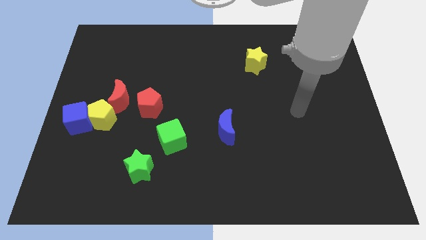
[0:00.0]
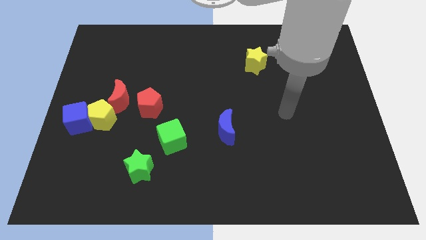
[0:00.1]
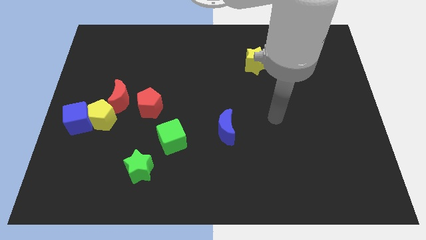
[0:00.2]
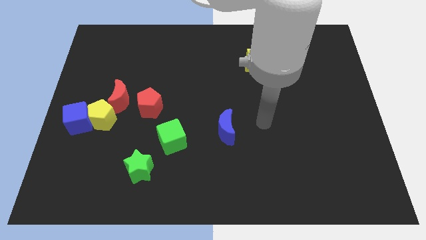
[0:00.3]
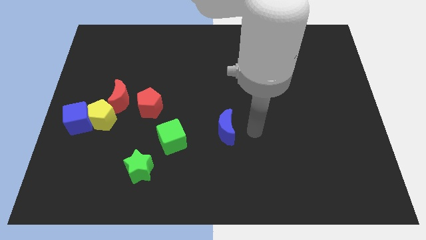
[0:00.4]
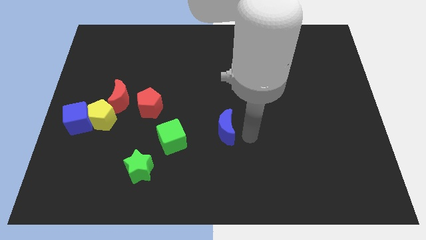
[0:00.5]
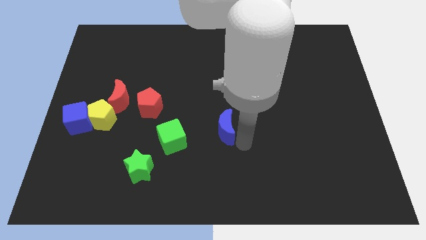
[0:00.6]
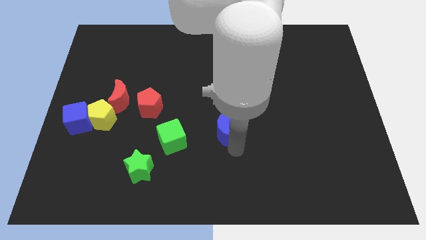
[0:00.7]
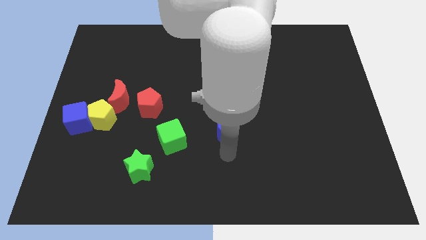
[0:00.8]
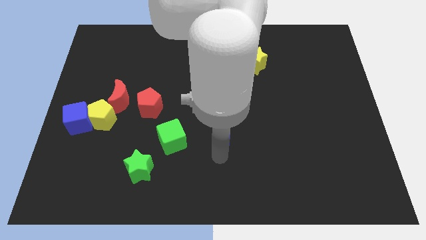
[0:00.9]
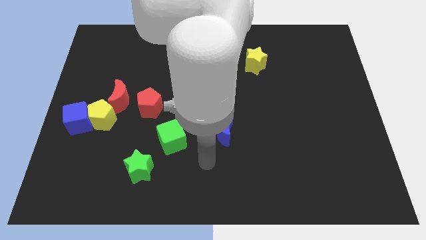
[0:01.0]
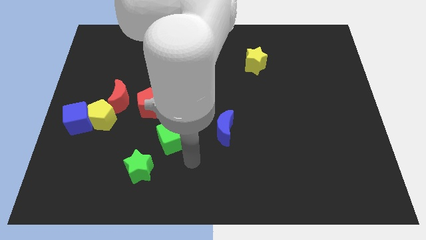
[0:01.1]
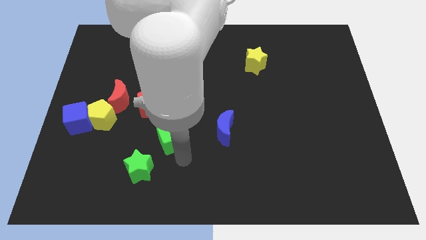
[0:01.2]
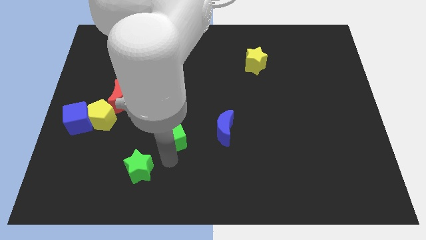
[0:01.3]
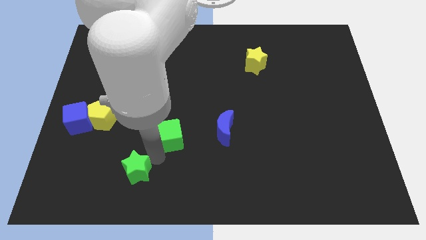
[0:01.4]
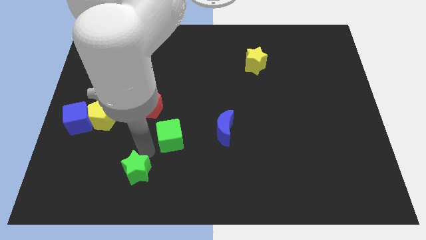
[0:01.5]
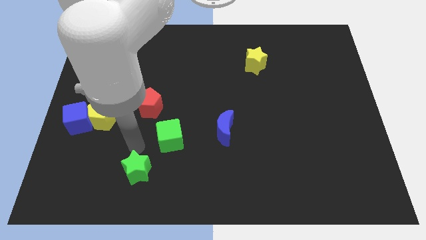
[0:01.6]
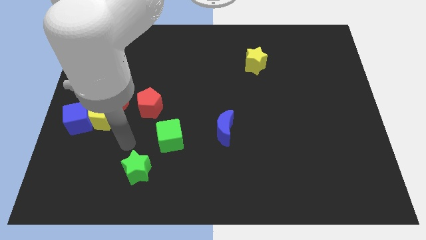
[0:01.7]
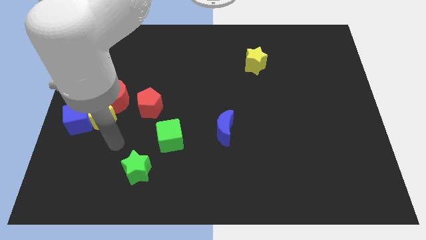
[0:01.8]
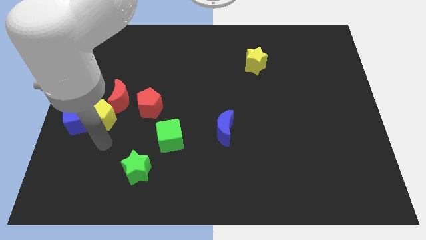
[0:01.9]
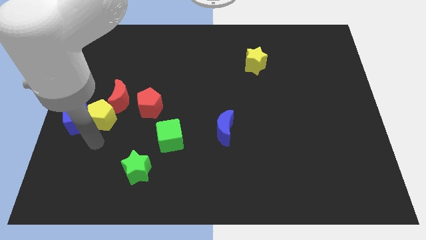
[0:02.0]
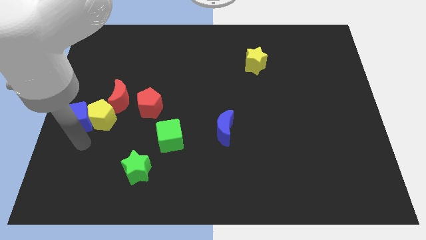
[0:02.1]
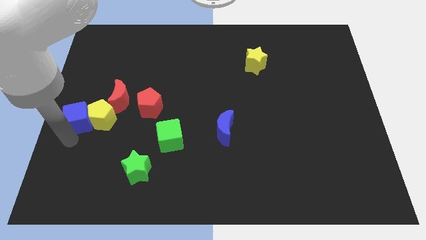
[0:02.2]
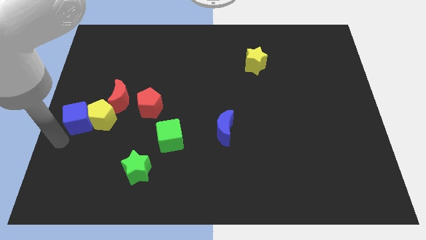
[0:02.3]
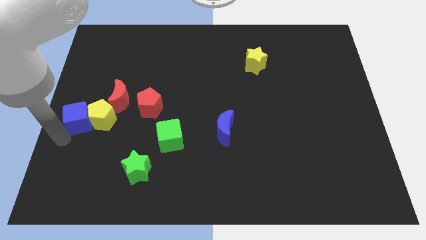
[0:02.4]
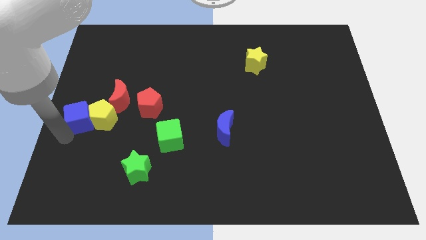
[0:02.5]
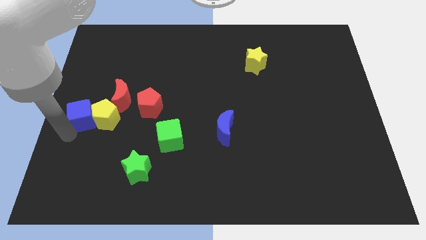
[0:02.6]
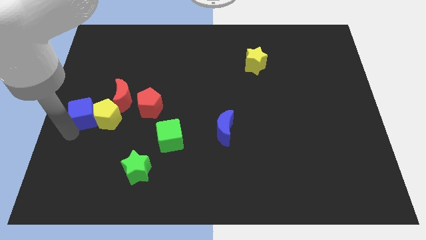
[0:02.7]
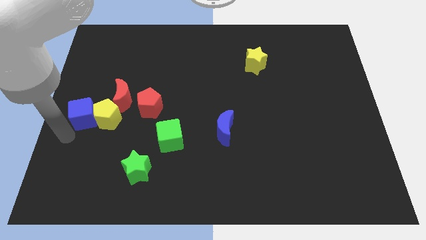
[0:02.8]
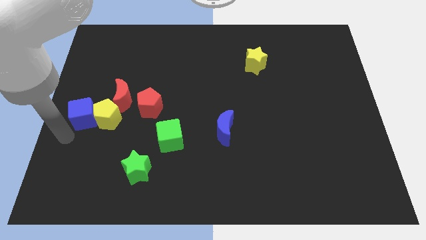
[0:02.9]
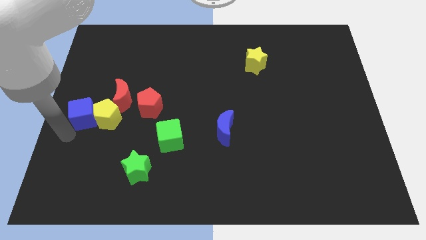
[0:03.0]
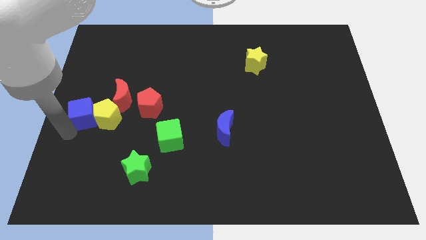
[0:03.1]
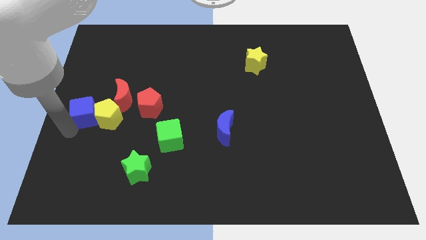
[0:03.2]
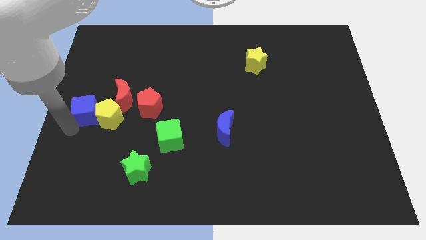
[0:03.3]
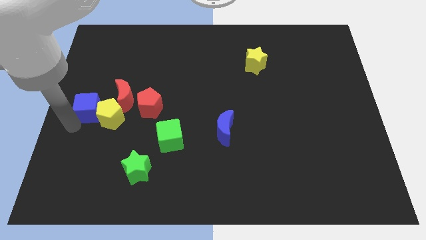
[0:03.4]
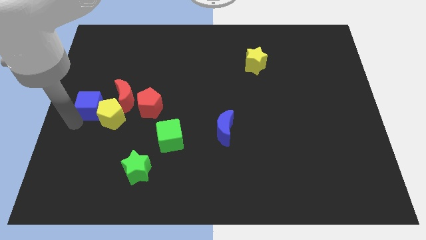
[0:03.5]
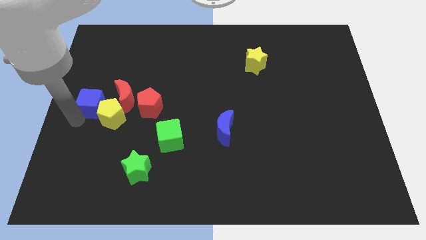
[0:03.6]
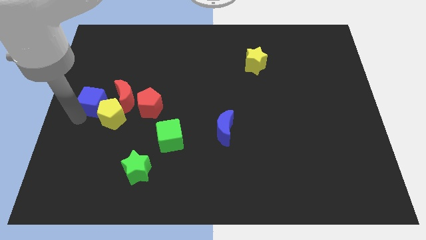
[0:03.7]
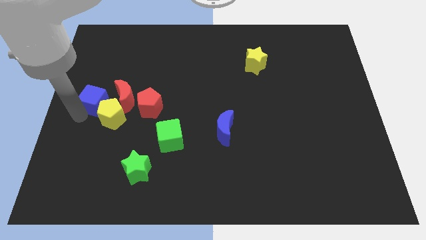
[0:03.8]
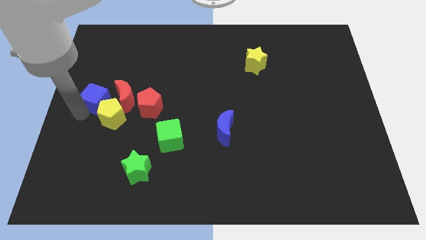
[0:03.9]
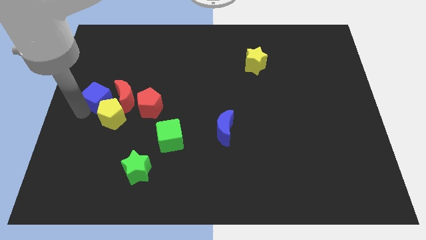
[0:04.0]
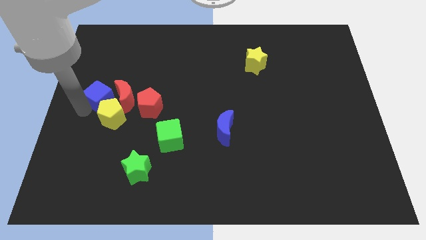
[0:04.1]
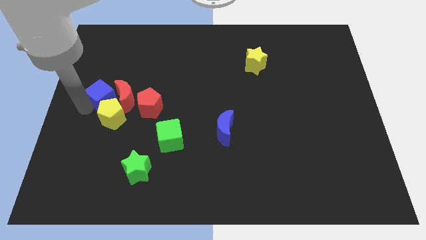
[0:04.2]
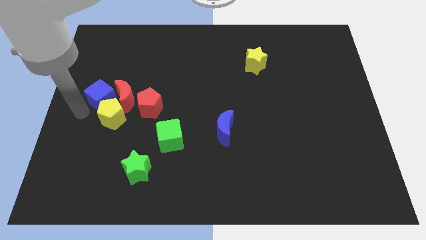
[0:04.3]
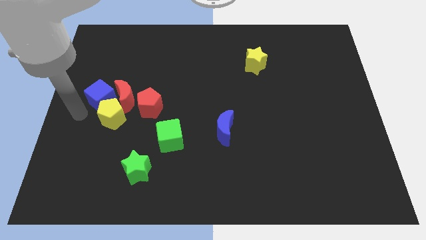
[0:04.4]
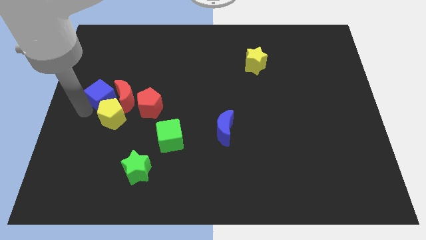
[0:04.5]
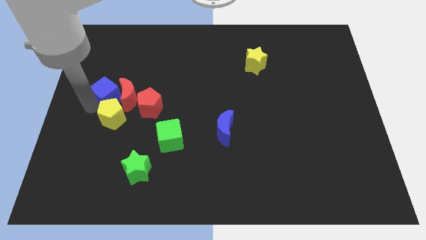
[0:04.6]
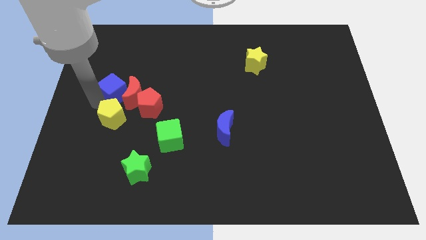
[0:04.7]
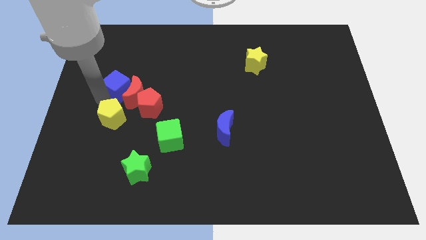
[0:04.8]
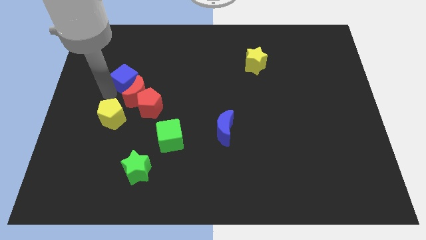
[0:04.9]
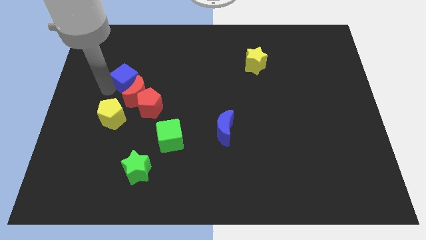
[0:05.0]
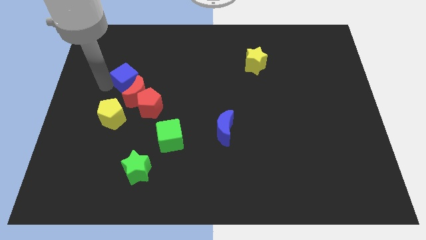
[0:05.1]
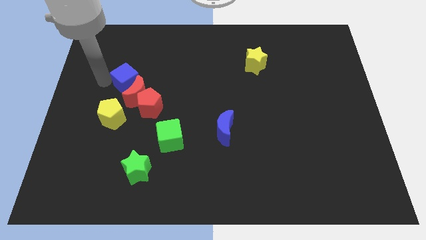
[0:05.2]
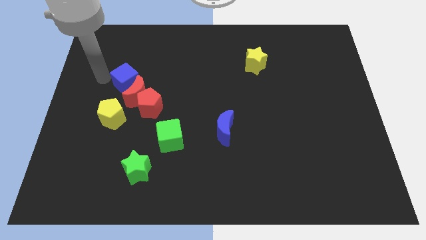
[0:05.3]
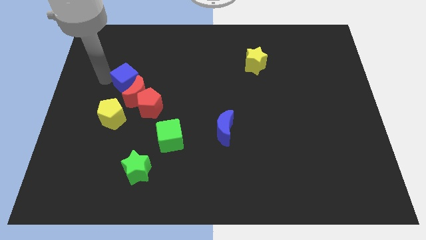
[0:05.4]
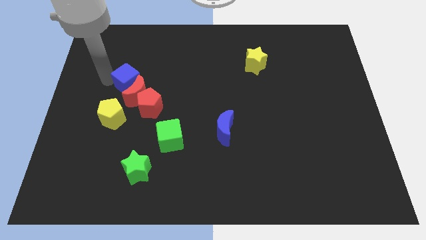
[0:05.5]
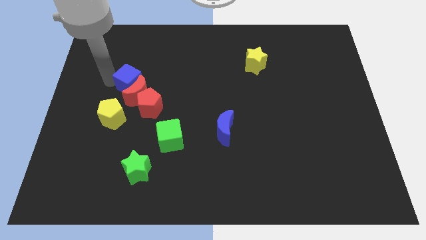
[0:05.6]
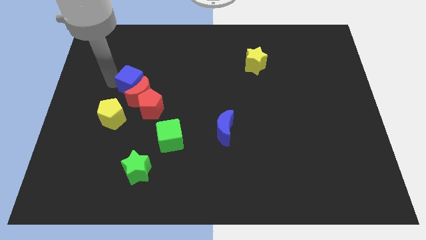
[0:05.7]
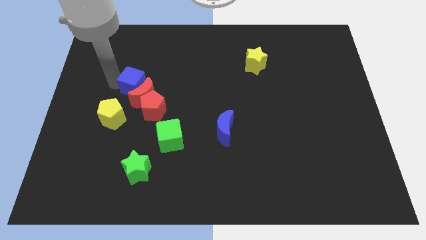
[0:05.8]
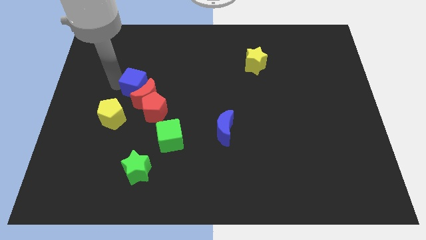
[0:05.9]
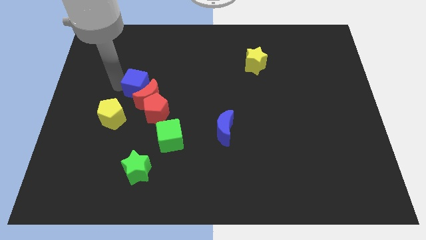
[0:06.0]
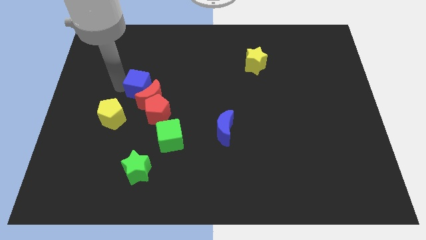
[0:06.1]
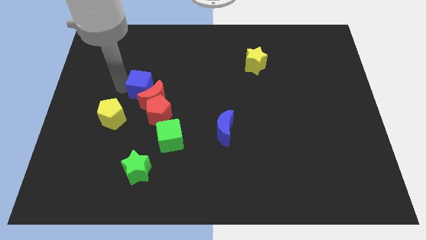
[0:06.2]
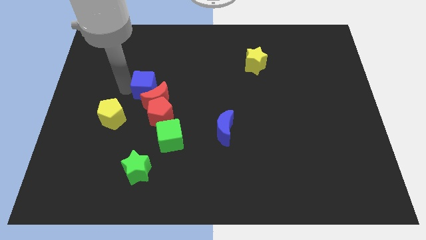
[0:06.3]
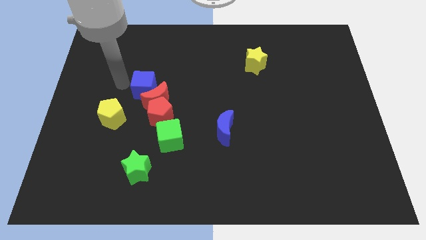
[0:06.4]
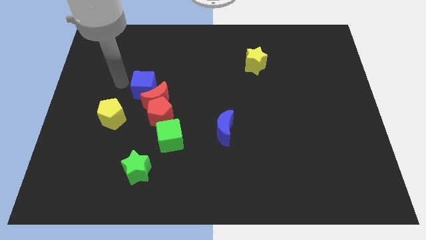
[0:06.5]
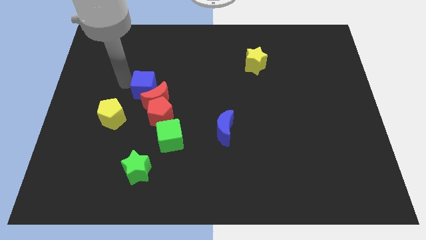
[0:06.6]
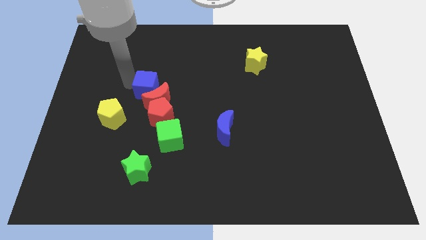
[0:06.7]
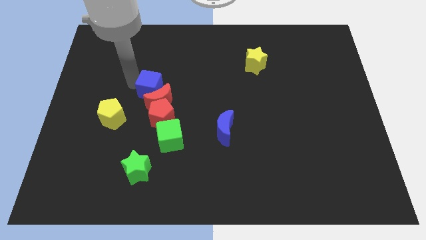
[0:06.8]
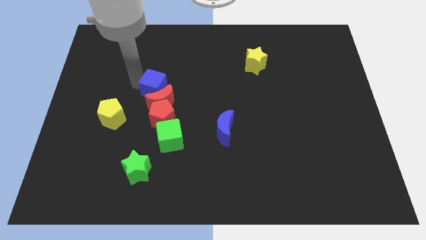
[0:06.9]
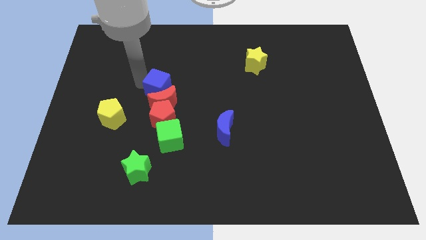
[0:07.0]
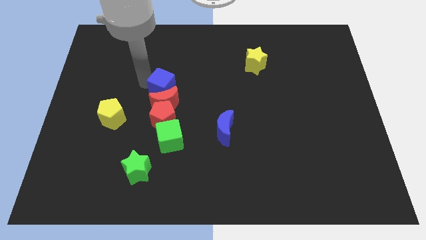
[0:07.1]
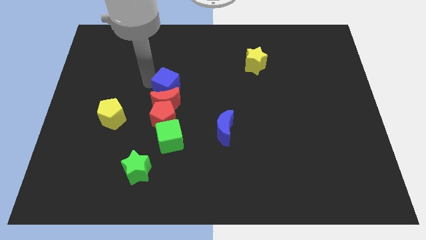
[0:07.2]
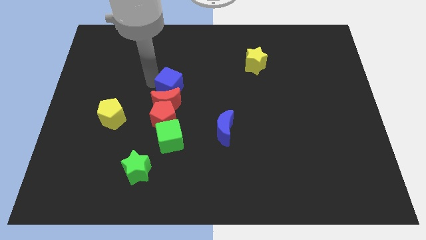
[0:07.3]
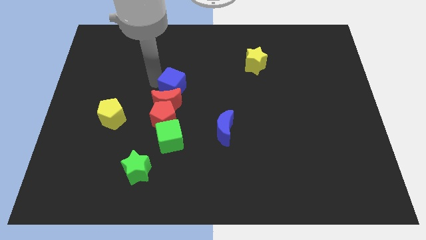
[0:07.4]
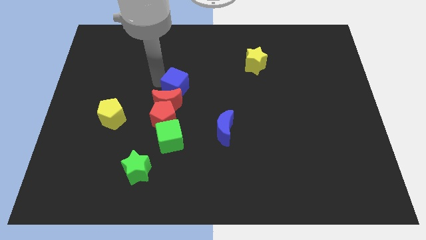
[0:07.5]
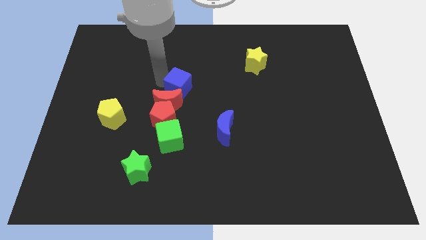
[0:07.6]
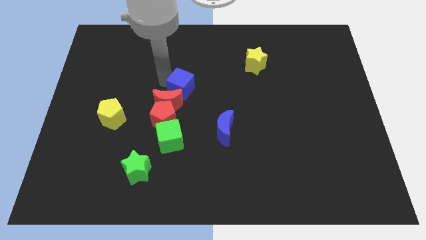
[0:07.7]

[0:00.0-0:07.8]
push the blue cube diagonally up and to the right of the red pentagon
